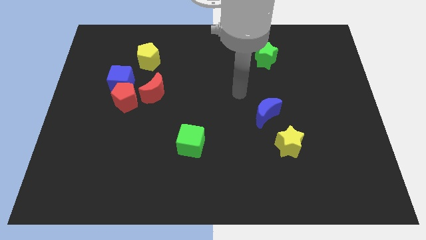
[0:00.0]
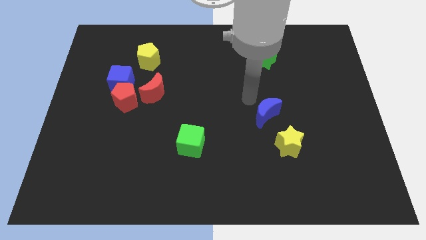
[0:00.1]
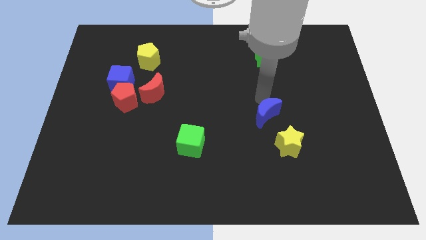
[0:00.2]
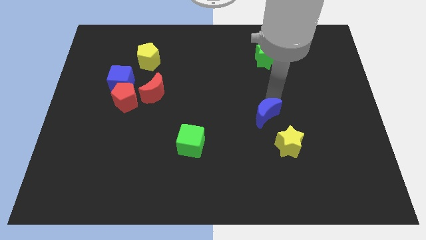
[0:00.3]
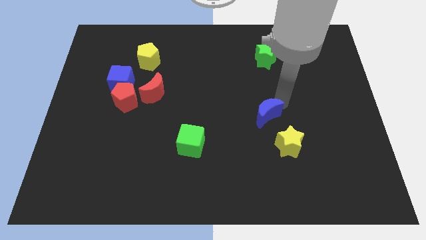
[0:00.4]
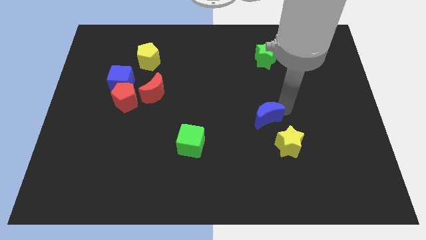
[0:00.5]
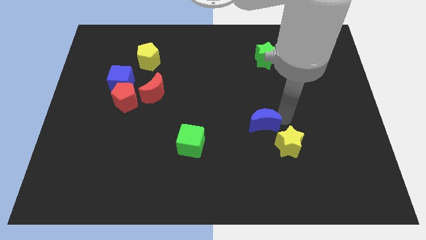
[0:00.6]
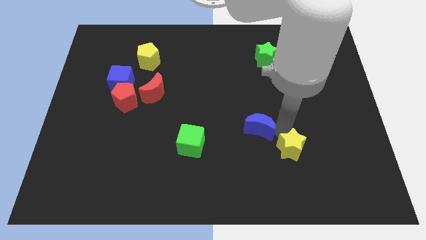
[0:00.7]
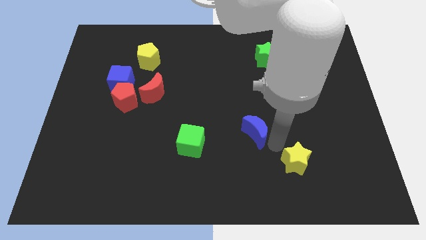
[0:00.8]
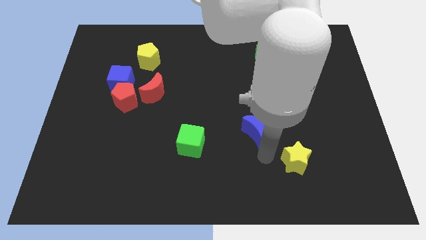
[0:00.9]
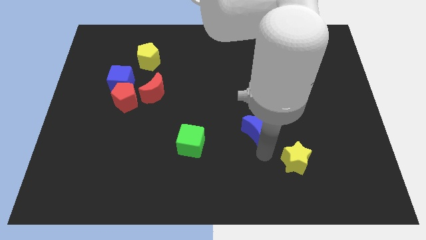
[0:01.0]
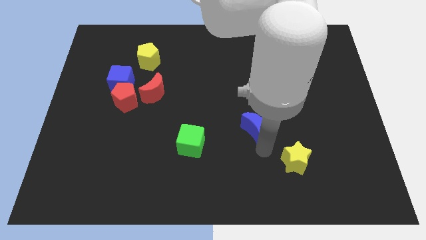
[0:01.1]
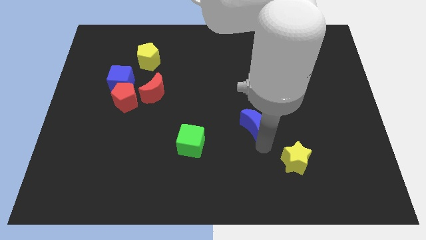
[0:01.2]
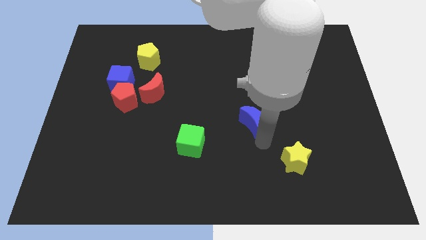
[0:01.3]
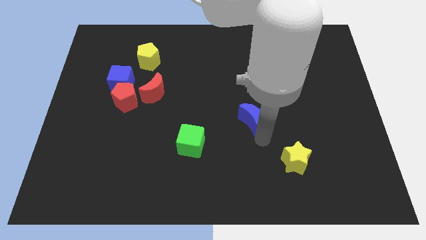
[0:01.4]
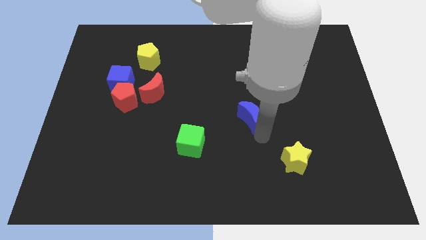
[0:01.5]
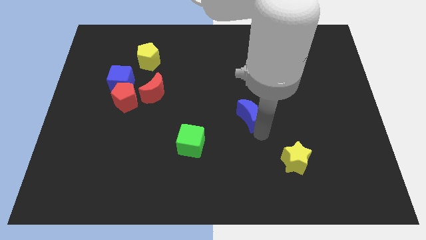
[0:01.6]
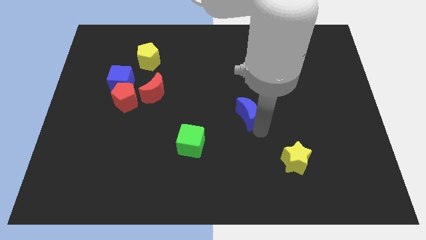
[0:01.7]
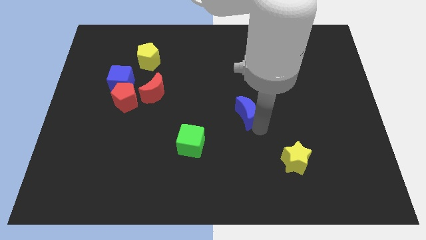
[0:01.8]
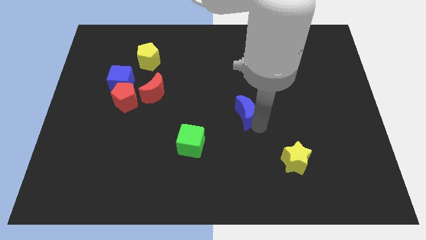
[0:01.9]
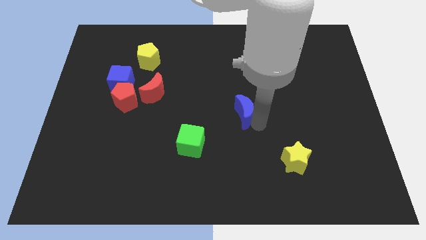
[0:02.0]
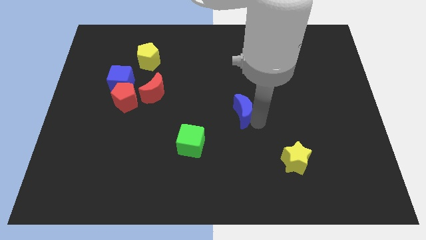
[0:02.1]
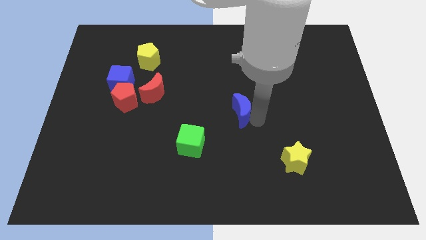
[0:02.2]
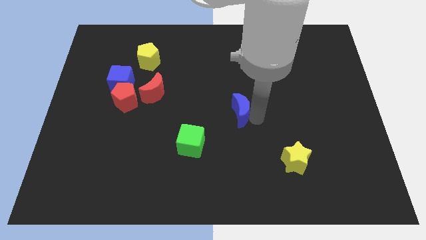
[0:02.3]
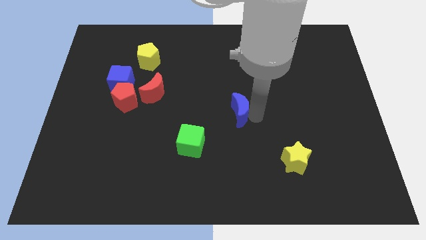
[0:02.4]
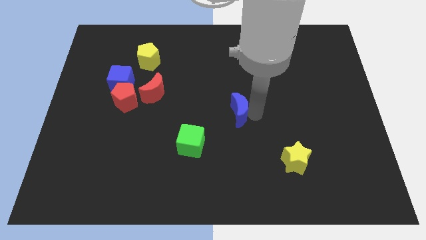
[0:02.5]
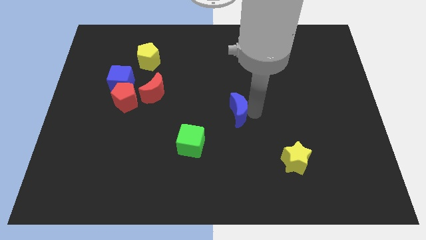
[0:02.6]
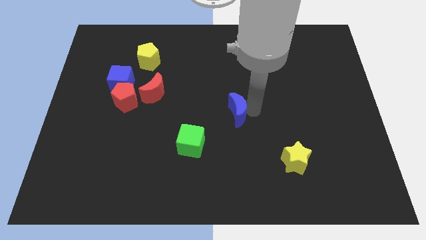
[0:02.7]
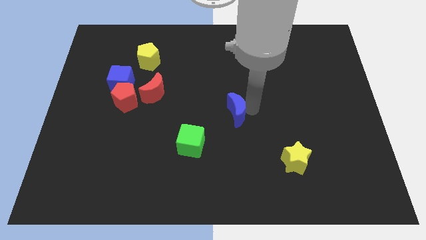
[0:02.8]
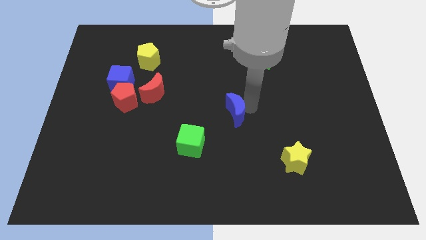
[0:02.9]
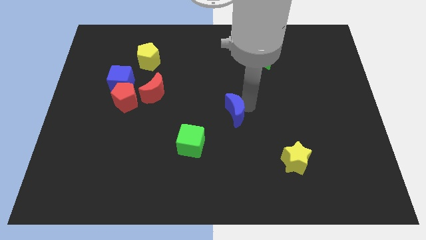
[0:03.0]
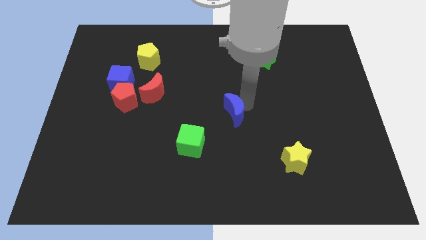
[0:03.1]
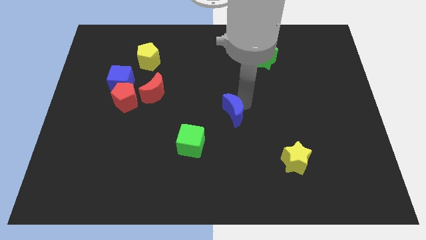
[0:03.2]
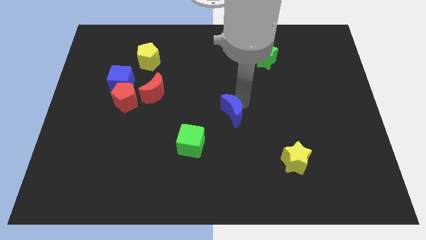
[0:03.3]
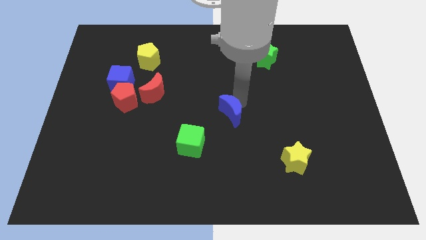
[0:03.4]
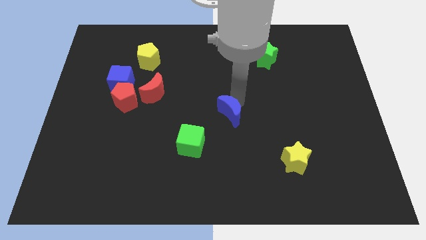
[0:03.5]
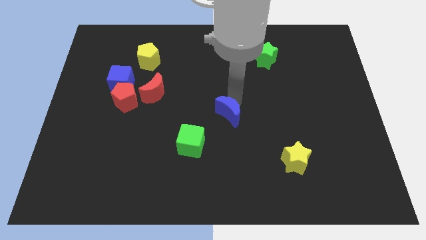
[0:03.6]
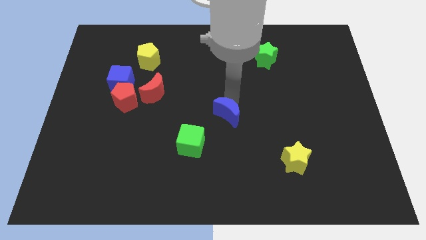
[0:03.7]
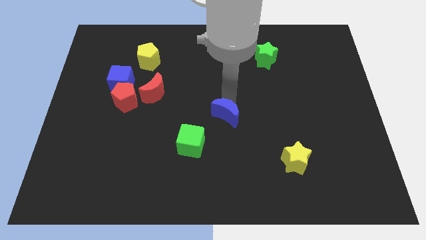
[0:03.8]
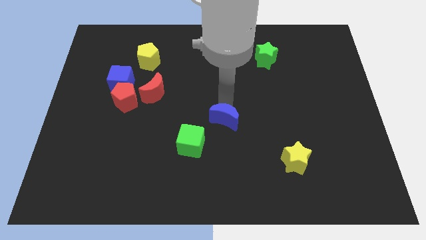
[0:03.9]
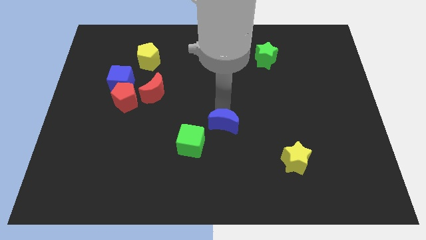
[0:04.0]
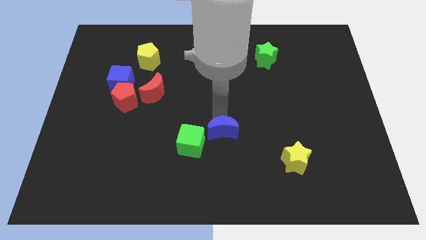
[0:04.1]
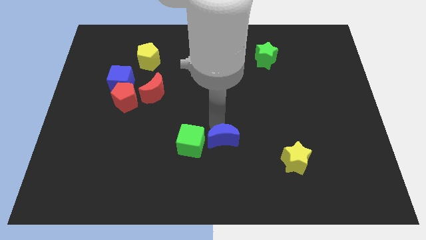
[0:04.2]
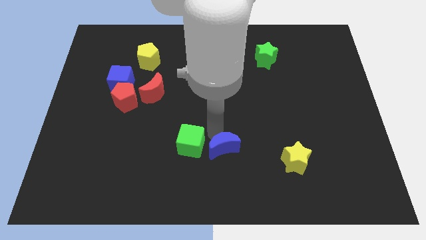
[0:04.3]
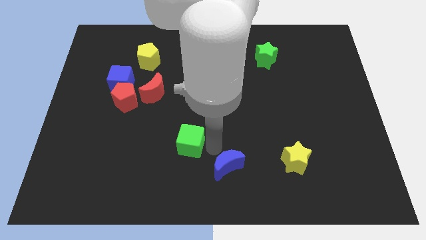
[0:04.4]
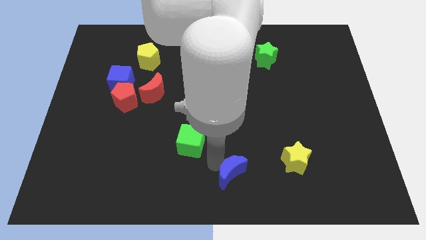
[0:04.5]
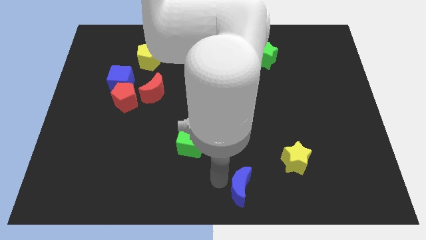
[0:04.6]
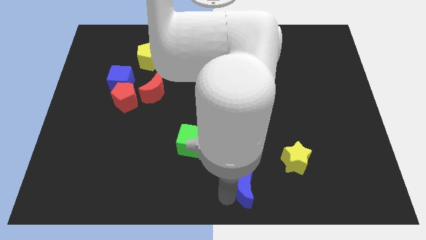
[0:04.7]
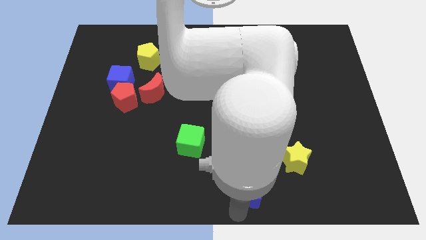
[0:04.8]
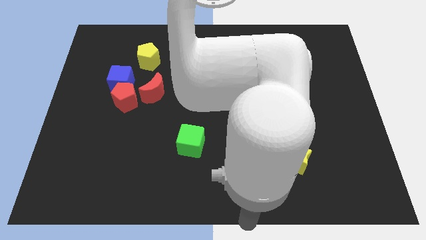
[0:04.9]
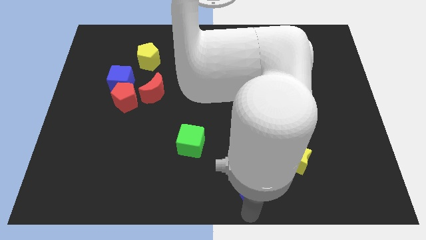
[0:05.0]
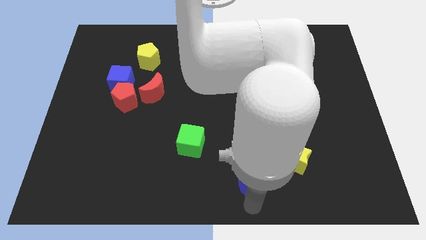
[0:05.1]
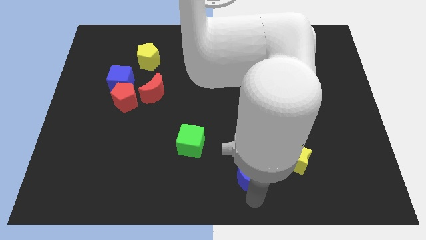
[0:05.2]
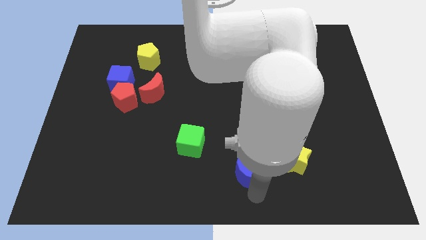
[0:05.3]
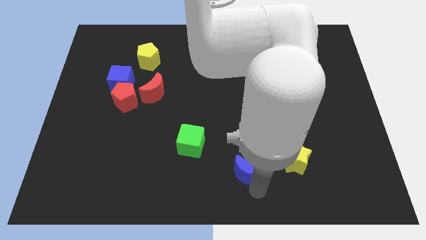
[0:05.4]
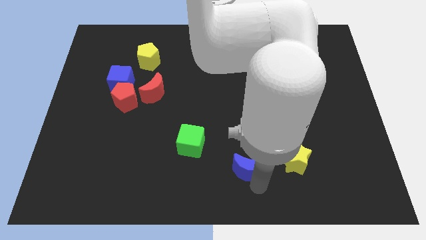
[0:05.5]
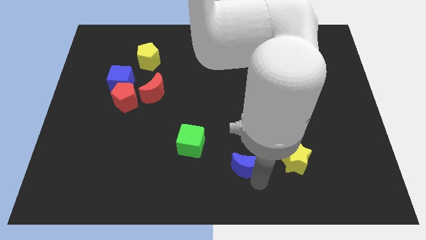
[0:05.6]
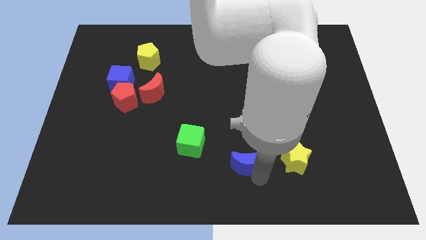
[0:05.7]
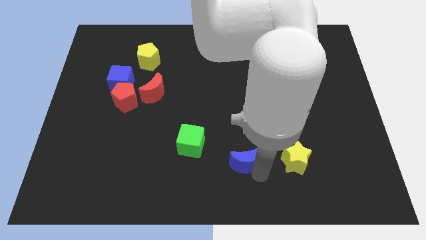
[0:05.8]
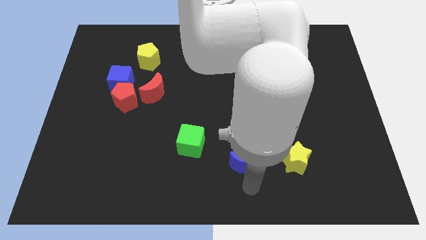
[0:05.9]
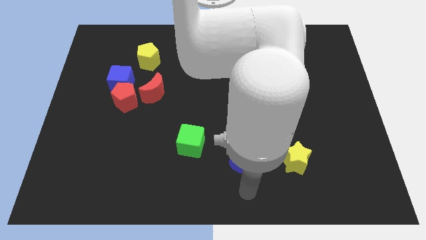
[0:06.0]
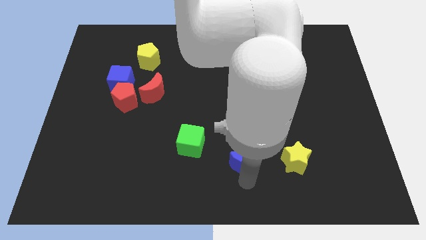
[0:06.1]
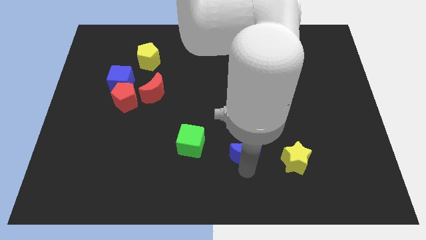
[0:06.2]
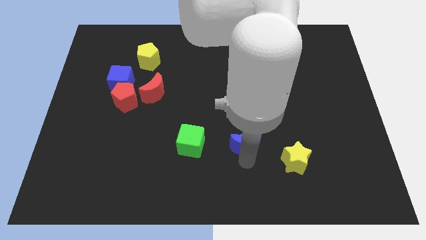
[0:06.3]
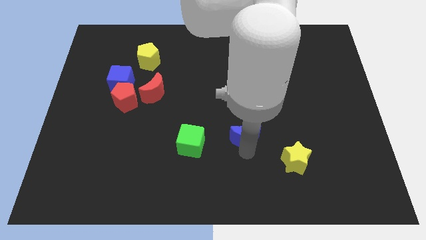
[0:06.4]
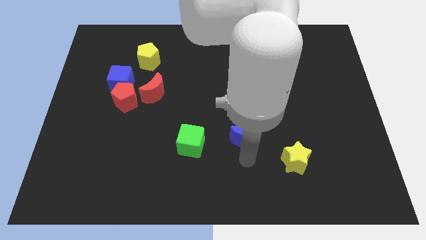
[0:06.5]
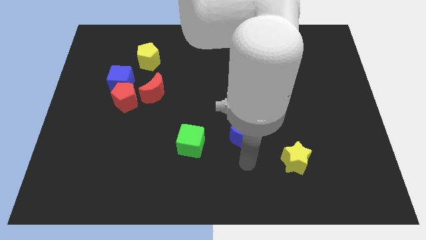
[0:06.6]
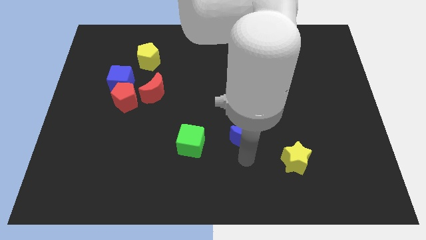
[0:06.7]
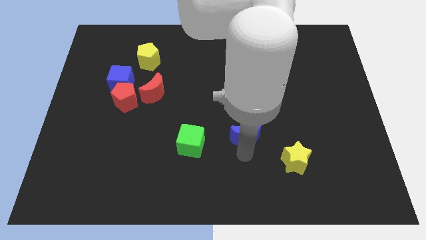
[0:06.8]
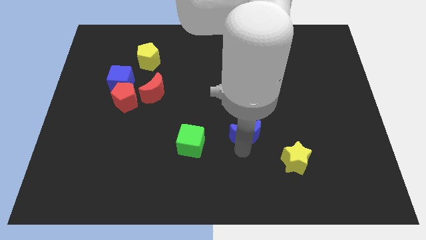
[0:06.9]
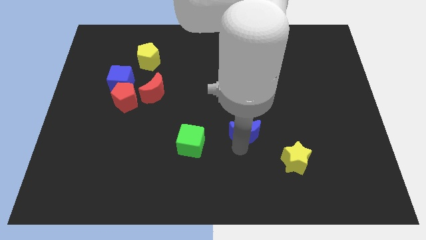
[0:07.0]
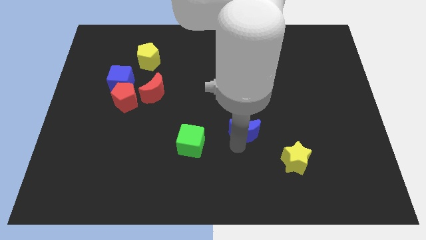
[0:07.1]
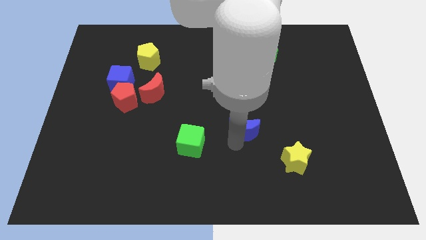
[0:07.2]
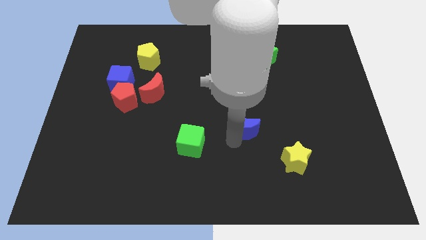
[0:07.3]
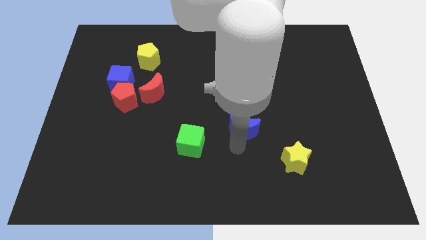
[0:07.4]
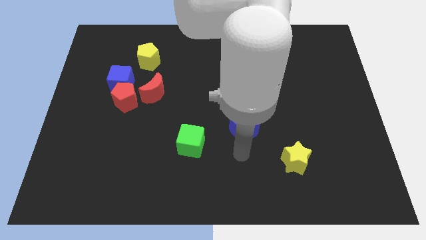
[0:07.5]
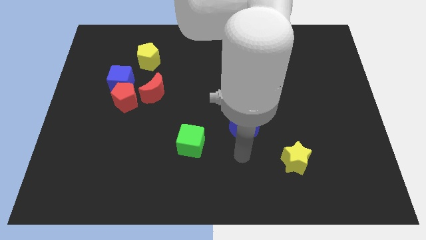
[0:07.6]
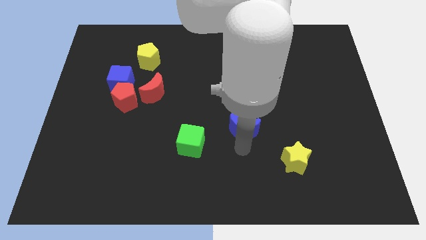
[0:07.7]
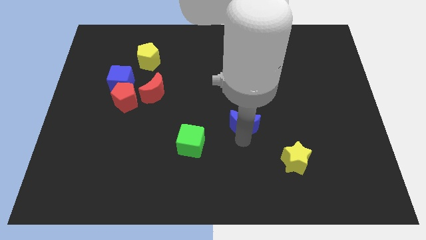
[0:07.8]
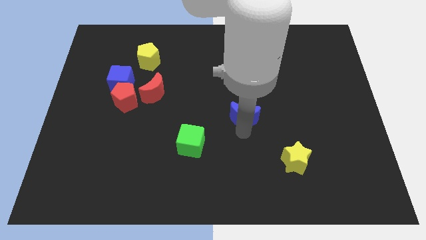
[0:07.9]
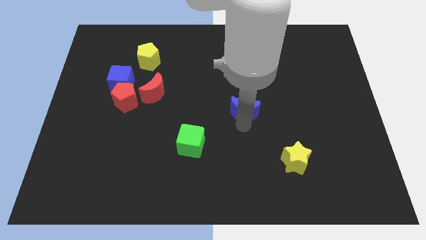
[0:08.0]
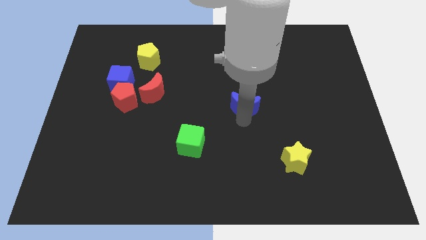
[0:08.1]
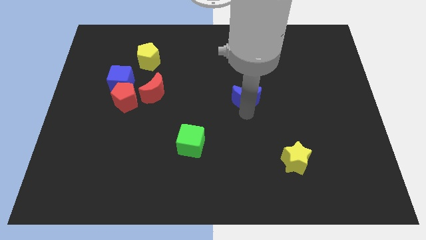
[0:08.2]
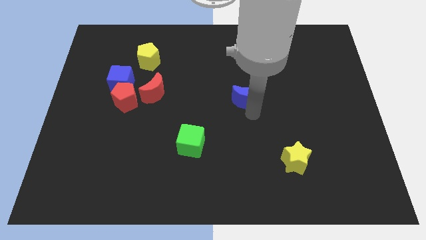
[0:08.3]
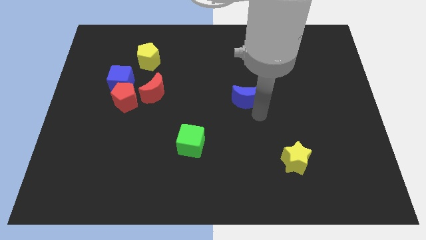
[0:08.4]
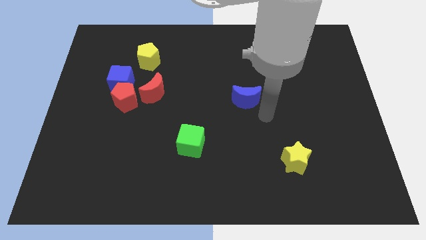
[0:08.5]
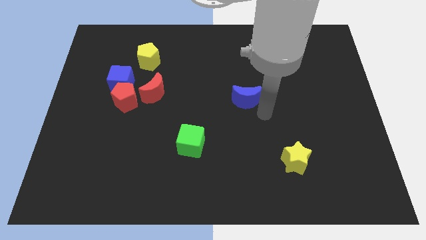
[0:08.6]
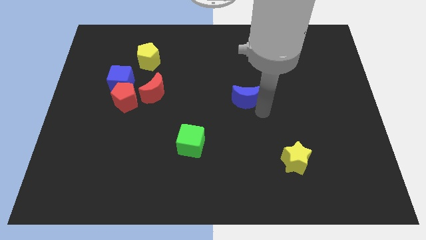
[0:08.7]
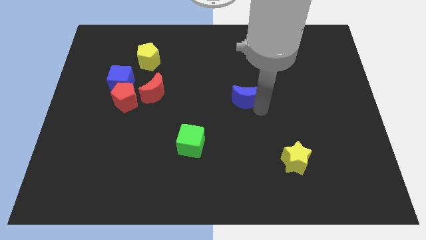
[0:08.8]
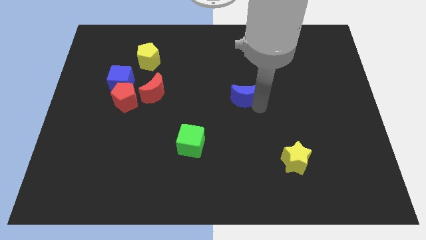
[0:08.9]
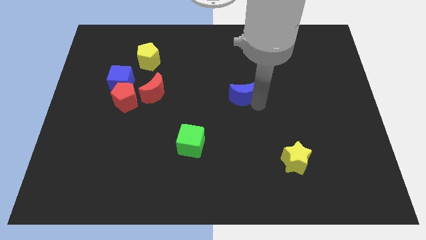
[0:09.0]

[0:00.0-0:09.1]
slide the blue moon upwards and to the left slightly
